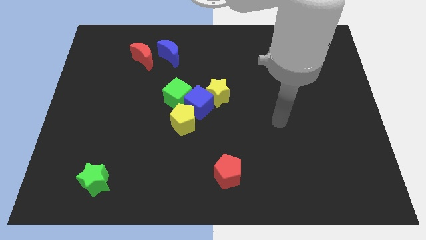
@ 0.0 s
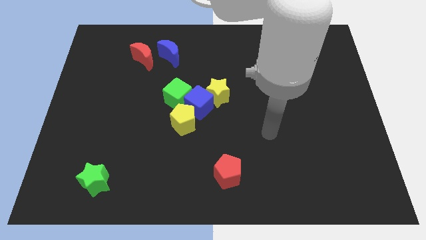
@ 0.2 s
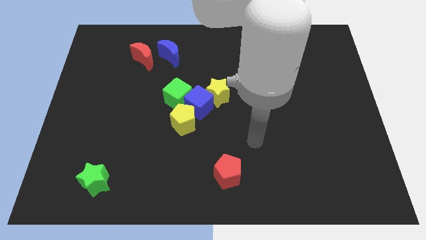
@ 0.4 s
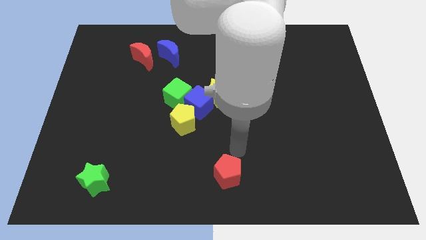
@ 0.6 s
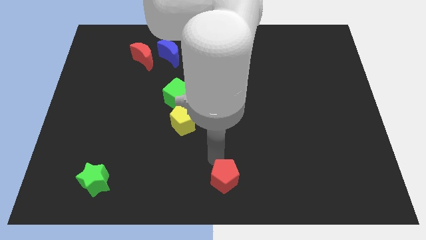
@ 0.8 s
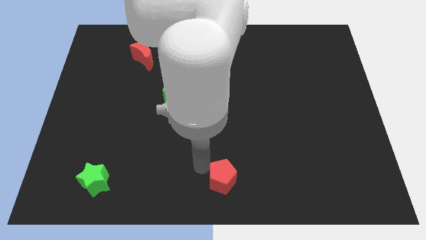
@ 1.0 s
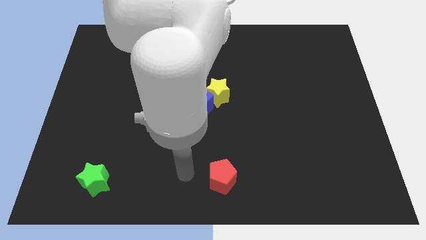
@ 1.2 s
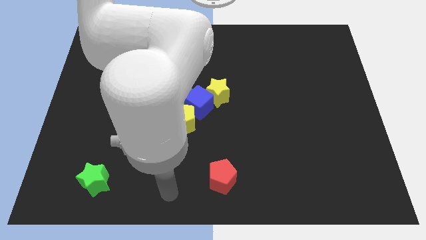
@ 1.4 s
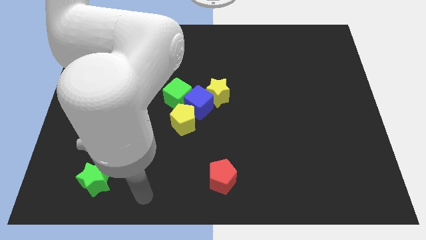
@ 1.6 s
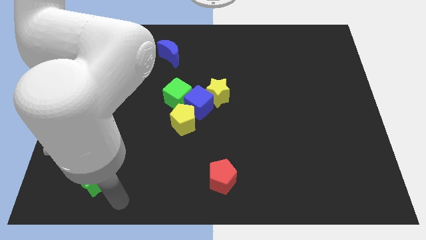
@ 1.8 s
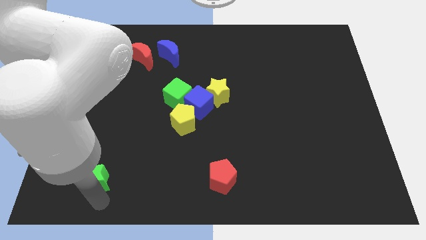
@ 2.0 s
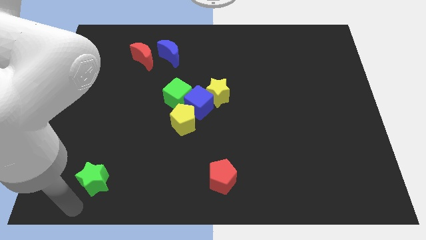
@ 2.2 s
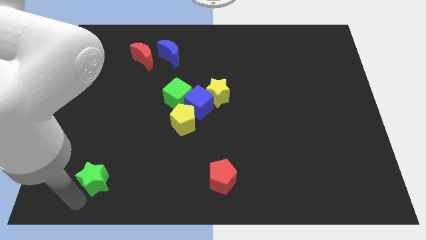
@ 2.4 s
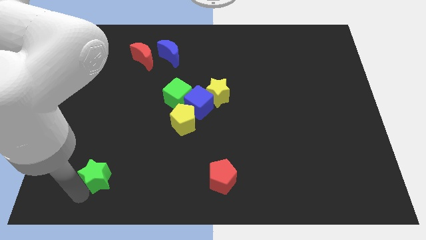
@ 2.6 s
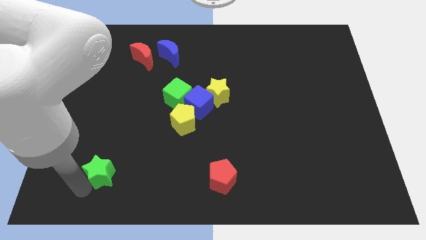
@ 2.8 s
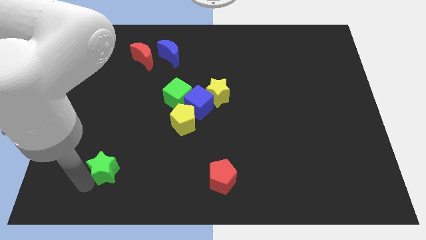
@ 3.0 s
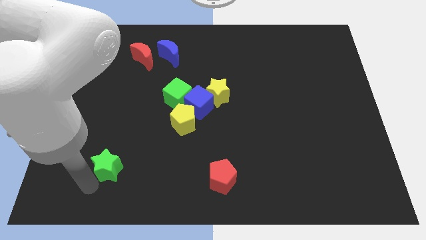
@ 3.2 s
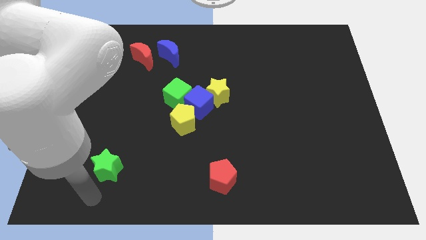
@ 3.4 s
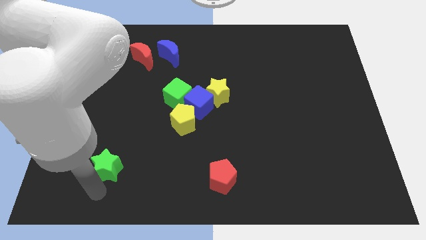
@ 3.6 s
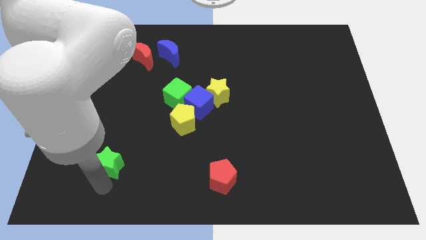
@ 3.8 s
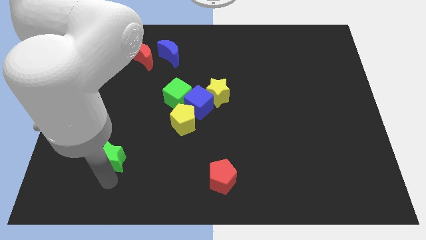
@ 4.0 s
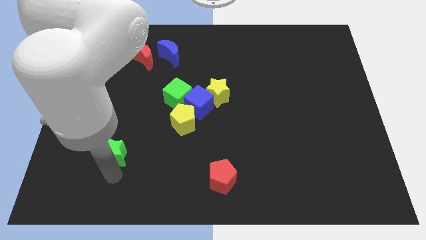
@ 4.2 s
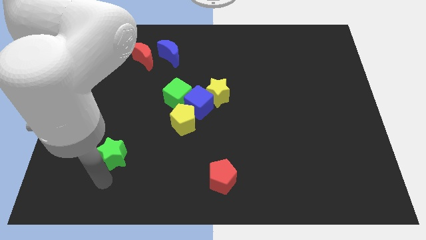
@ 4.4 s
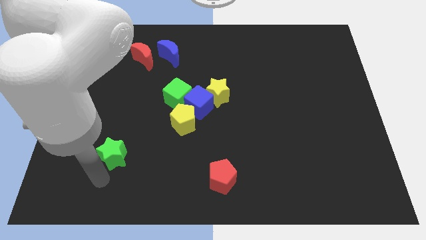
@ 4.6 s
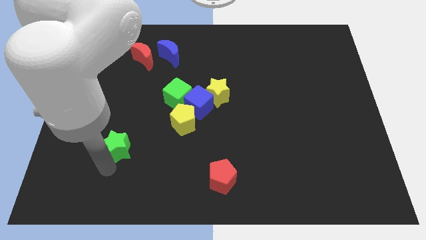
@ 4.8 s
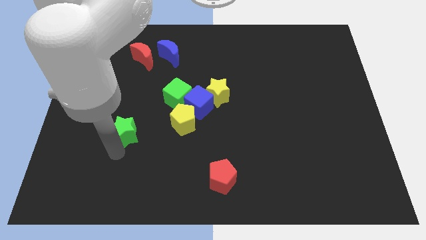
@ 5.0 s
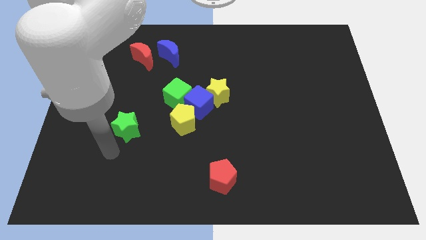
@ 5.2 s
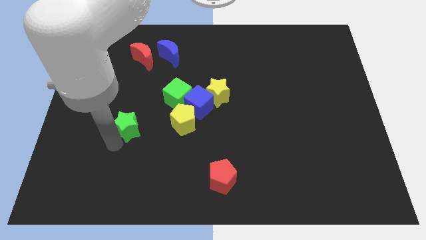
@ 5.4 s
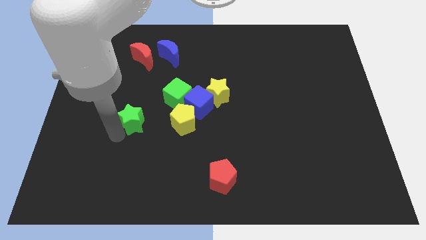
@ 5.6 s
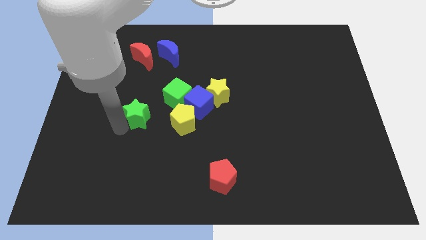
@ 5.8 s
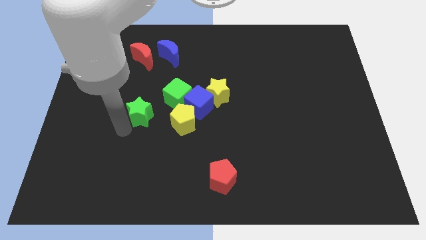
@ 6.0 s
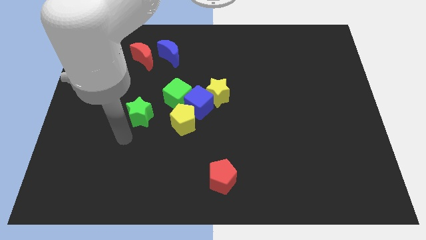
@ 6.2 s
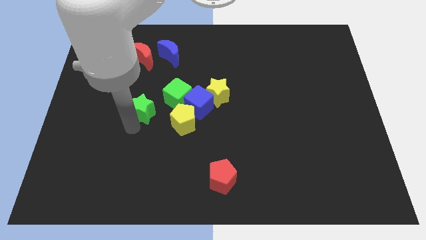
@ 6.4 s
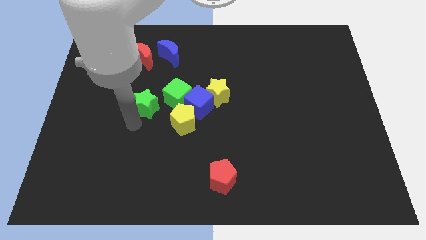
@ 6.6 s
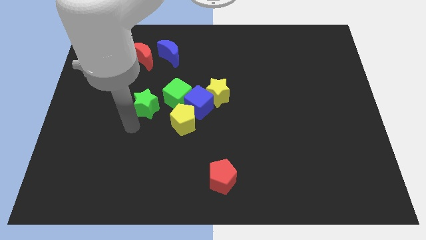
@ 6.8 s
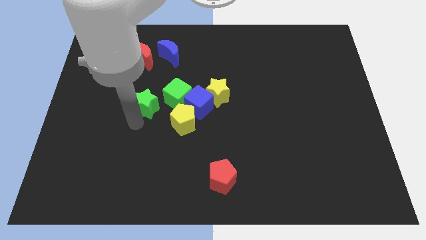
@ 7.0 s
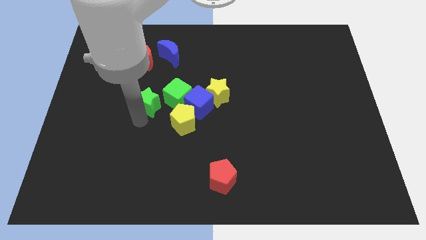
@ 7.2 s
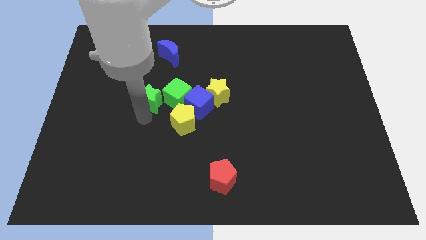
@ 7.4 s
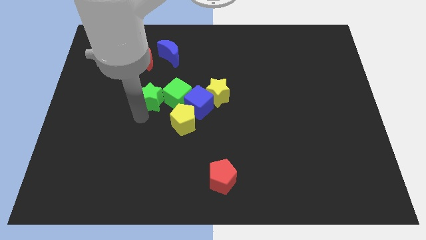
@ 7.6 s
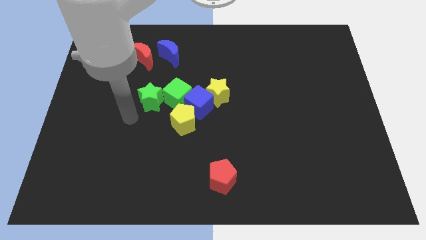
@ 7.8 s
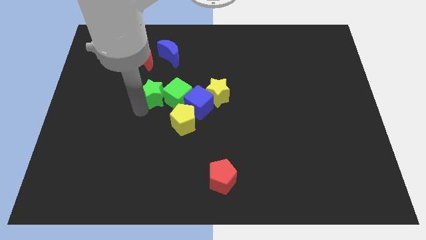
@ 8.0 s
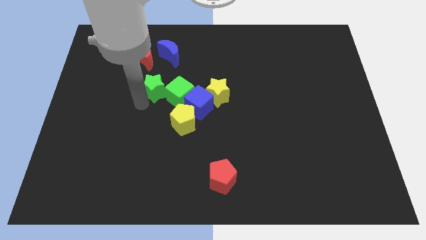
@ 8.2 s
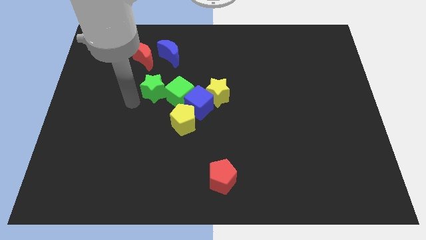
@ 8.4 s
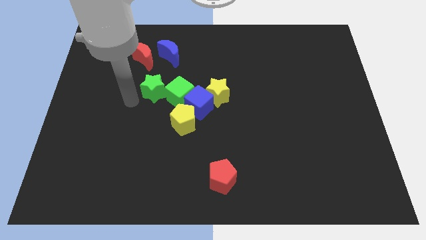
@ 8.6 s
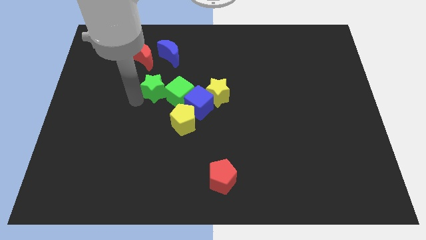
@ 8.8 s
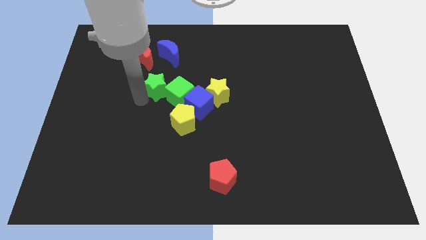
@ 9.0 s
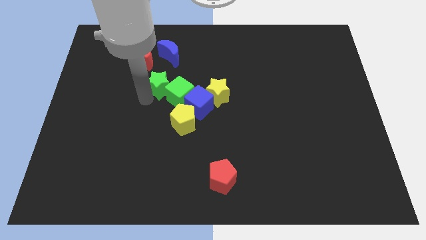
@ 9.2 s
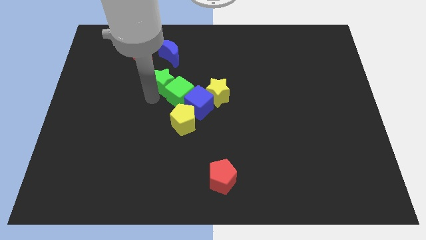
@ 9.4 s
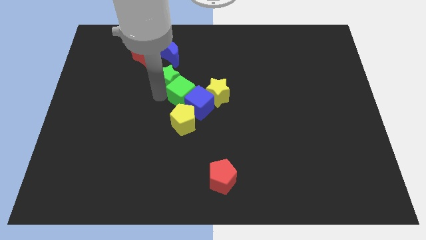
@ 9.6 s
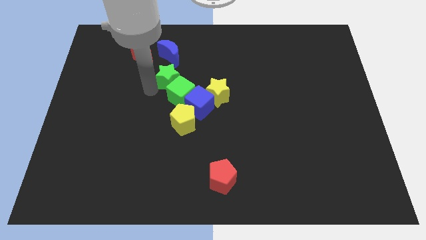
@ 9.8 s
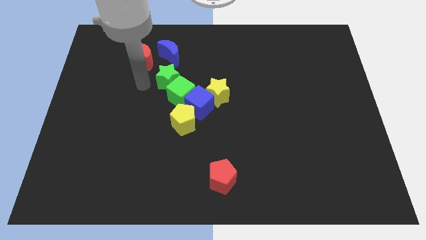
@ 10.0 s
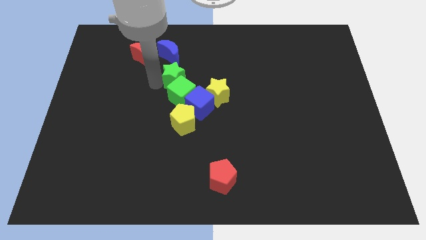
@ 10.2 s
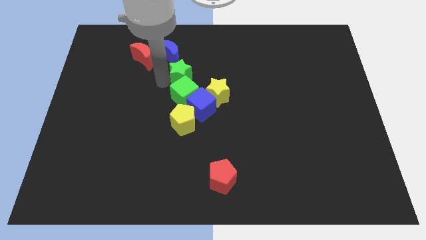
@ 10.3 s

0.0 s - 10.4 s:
put the green star diagonally up and to the left of the yellow star

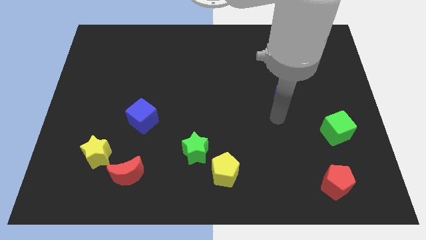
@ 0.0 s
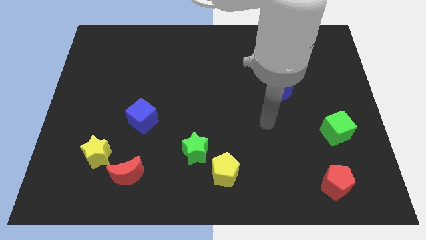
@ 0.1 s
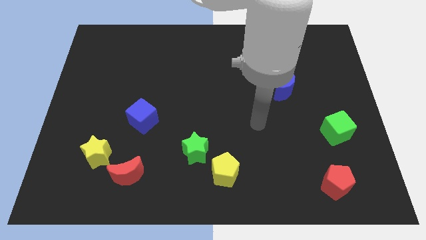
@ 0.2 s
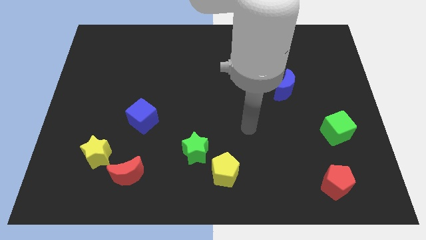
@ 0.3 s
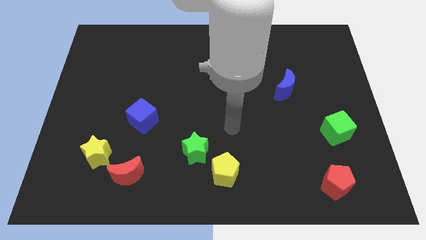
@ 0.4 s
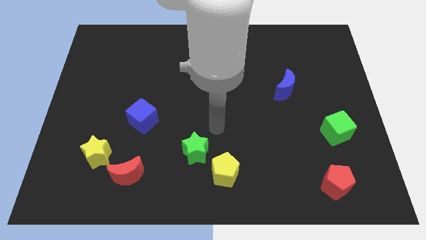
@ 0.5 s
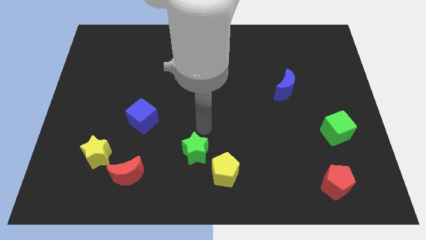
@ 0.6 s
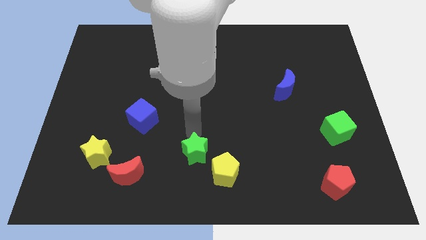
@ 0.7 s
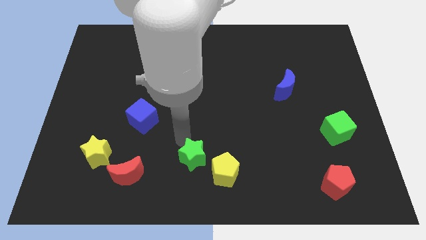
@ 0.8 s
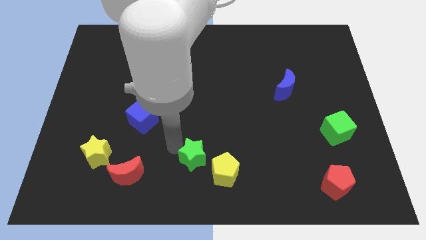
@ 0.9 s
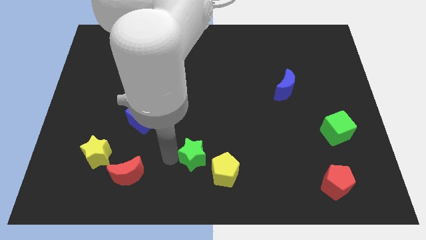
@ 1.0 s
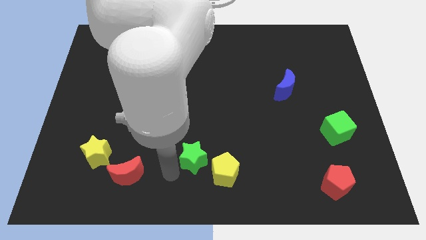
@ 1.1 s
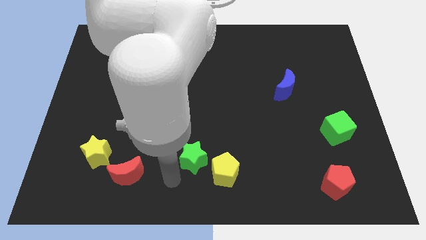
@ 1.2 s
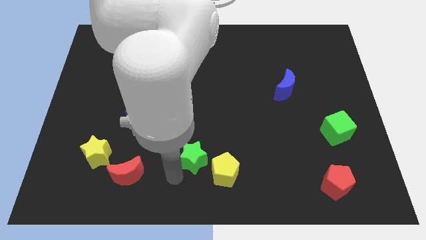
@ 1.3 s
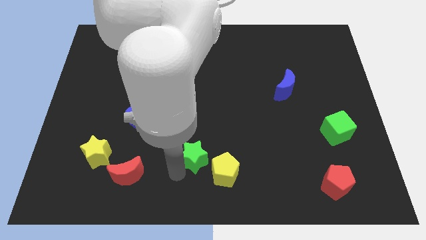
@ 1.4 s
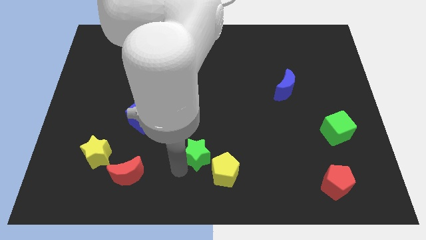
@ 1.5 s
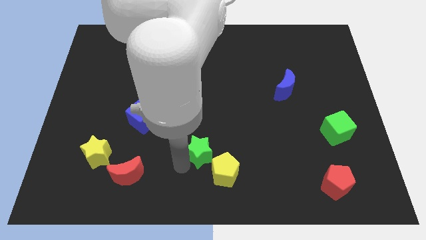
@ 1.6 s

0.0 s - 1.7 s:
push the green star to the top side of the yellow pentagon
